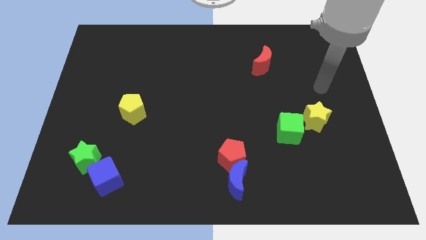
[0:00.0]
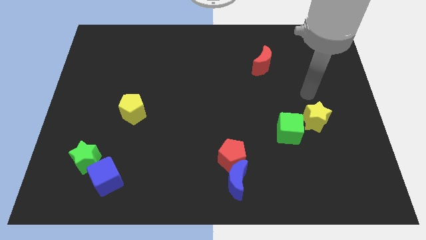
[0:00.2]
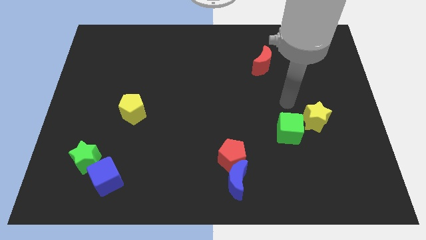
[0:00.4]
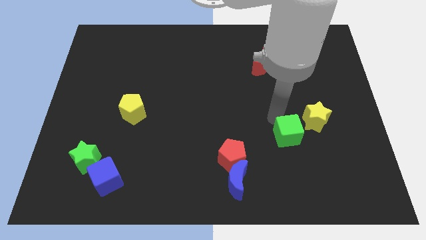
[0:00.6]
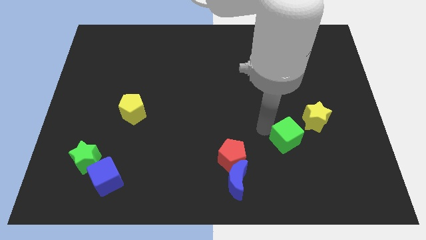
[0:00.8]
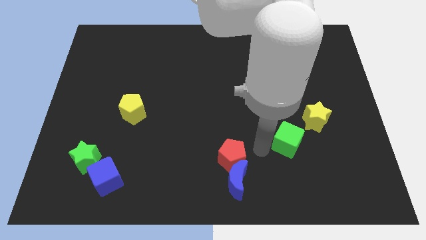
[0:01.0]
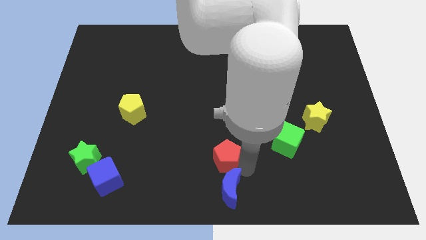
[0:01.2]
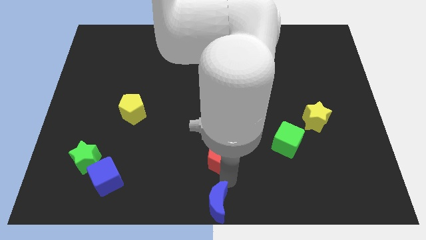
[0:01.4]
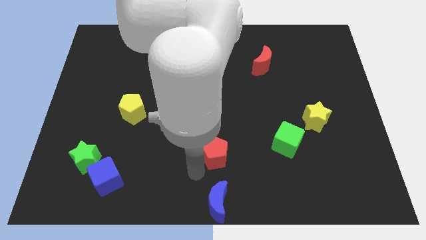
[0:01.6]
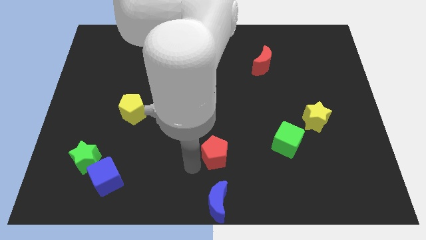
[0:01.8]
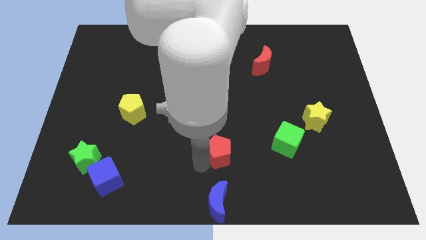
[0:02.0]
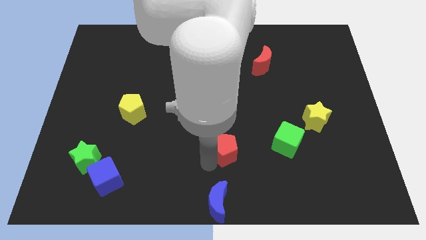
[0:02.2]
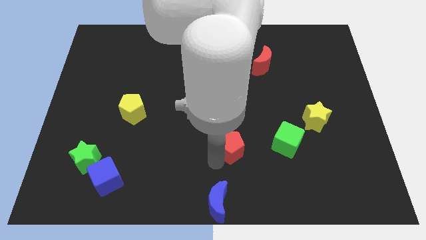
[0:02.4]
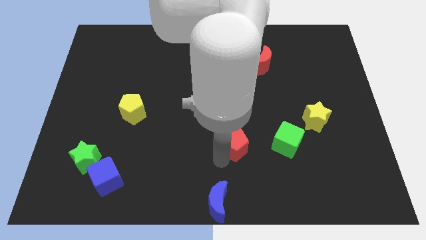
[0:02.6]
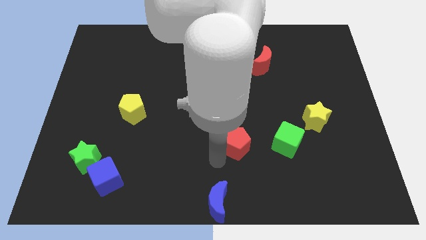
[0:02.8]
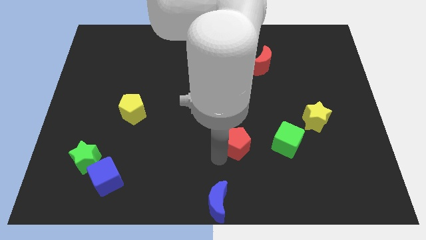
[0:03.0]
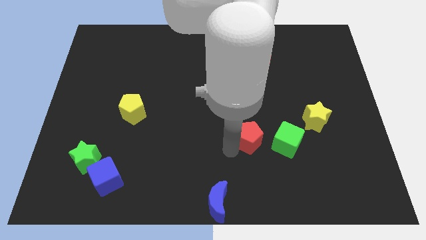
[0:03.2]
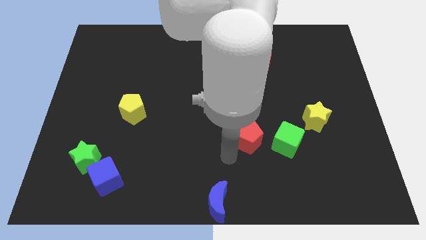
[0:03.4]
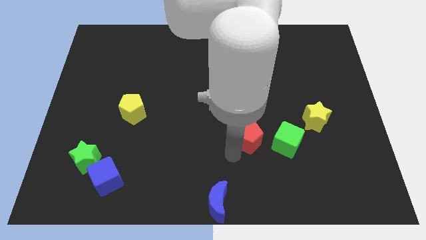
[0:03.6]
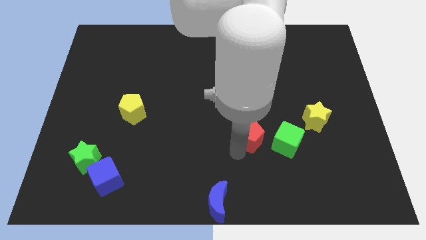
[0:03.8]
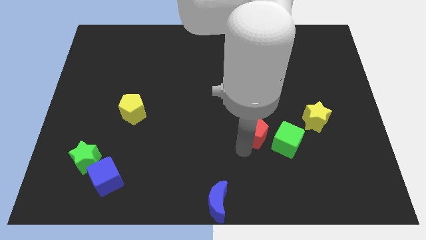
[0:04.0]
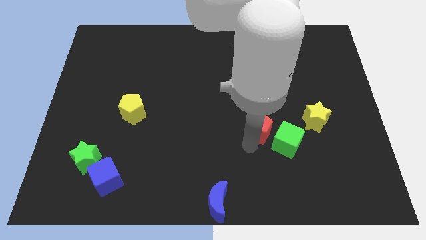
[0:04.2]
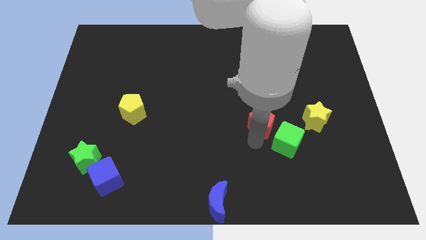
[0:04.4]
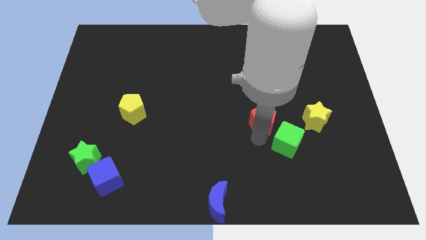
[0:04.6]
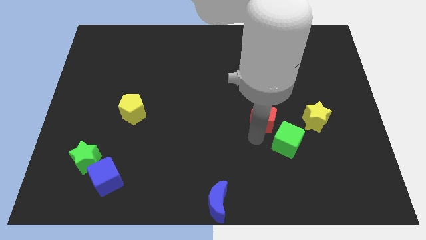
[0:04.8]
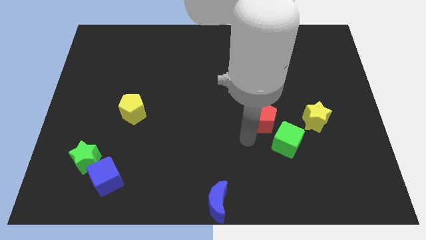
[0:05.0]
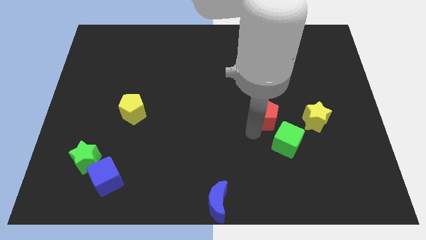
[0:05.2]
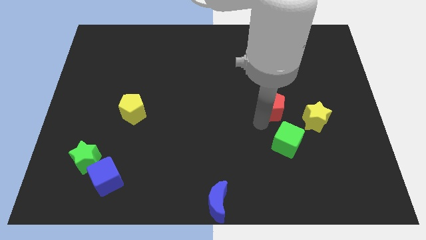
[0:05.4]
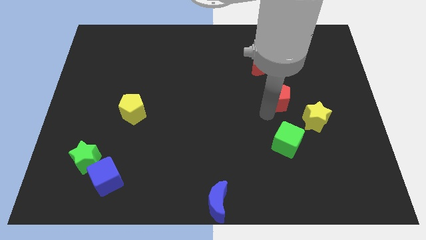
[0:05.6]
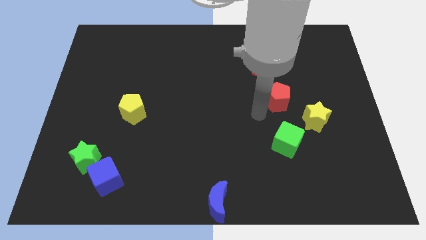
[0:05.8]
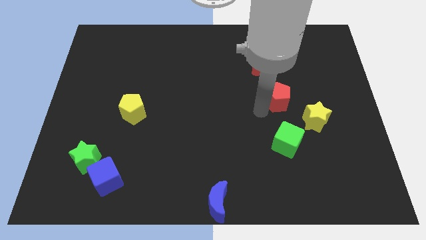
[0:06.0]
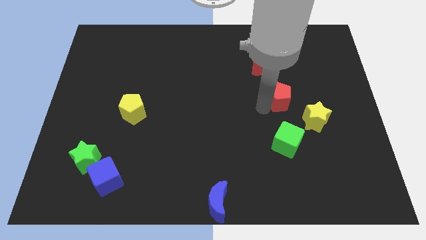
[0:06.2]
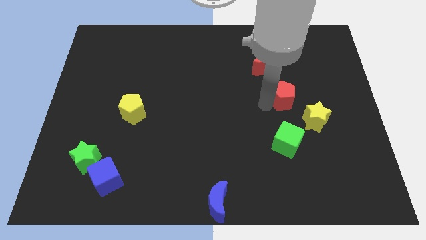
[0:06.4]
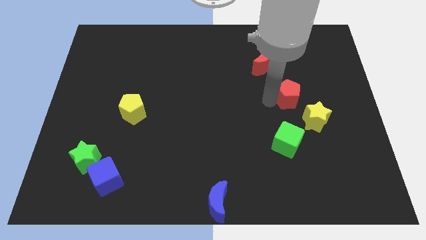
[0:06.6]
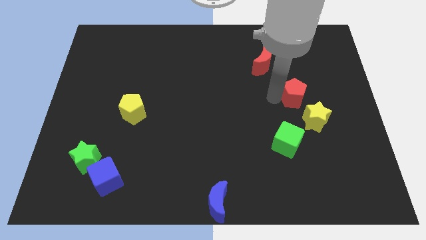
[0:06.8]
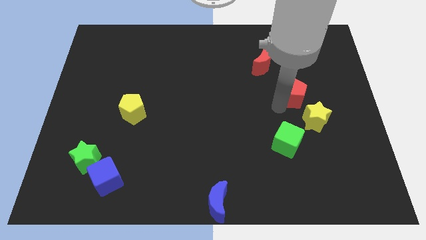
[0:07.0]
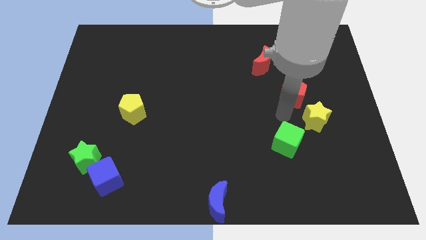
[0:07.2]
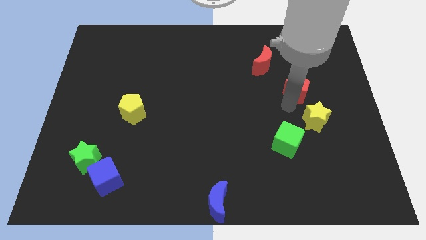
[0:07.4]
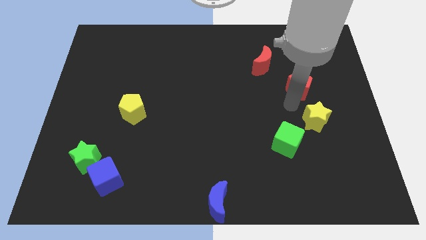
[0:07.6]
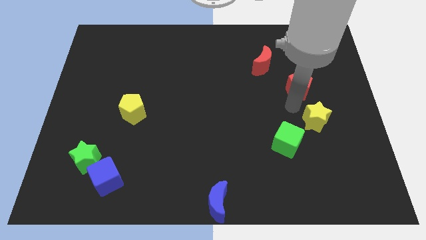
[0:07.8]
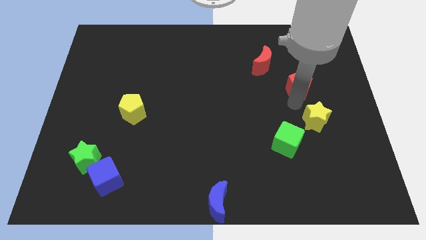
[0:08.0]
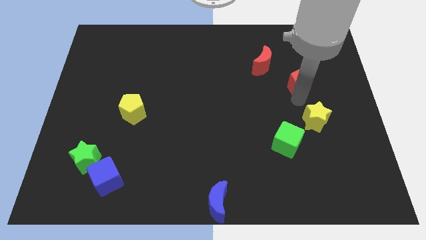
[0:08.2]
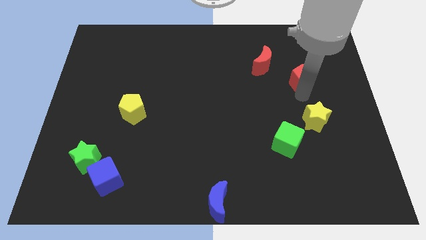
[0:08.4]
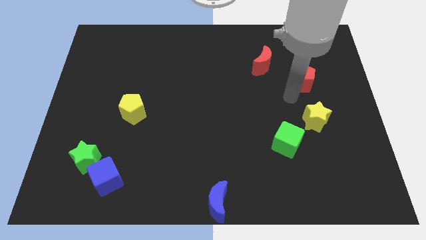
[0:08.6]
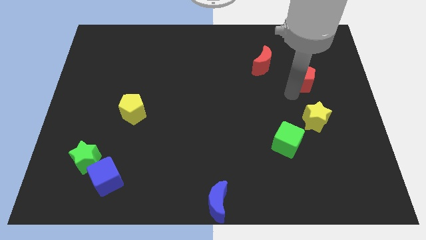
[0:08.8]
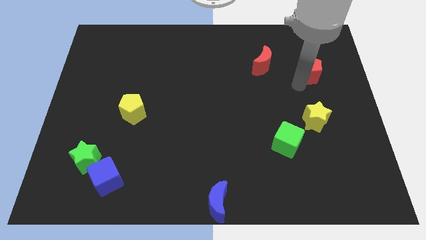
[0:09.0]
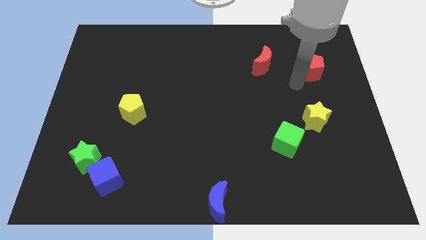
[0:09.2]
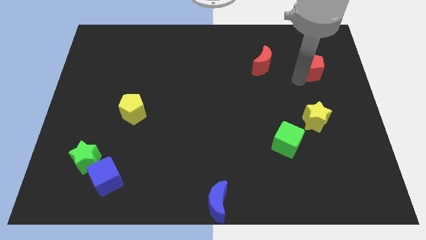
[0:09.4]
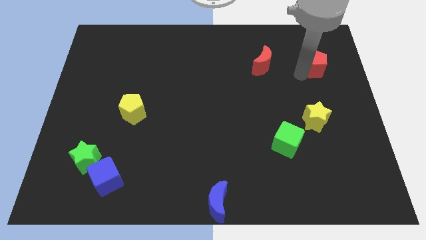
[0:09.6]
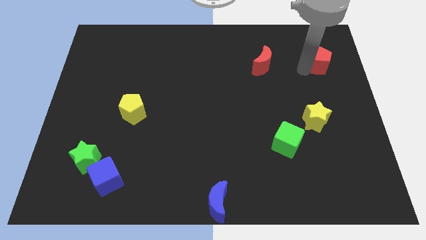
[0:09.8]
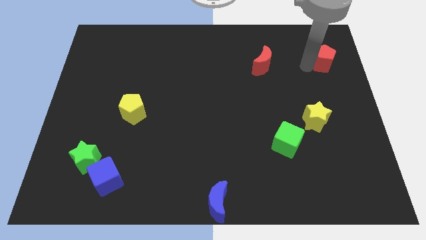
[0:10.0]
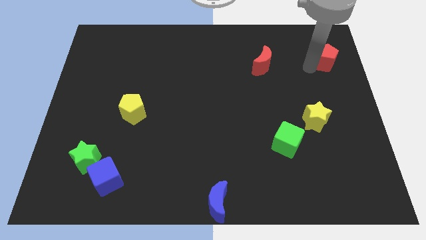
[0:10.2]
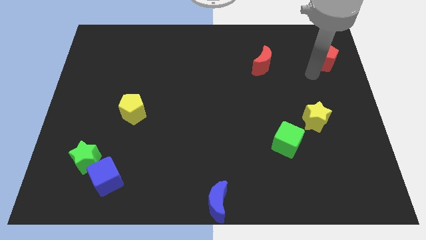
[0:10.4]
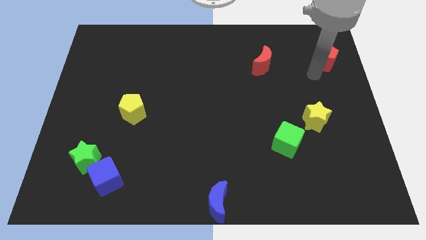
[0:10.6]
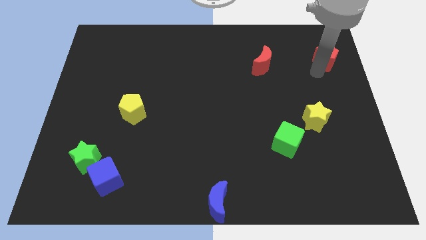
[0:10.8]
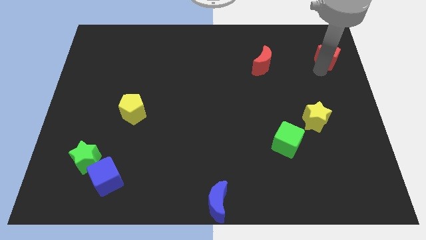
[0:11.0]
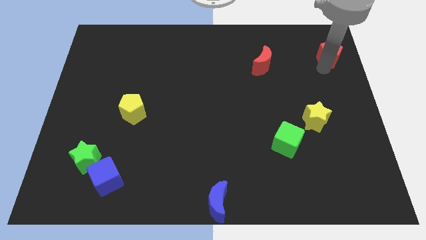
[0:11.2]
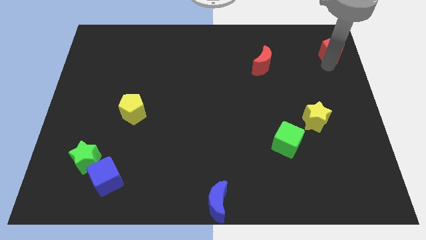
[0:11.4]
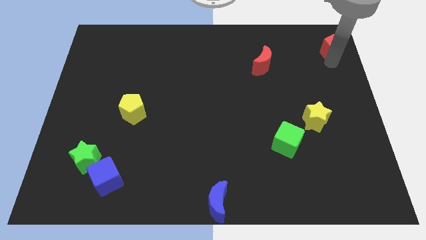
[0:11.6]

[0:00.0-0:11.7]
push the red pentagon to the top right corner

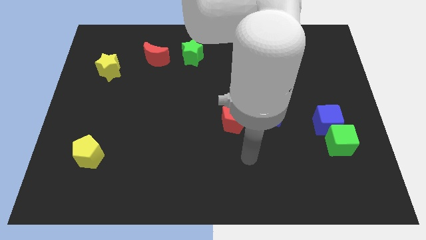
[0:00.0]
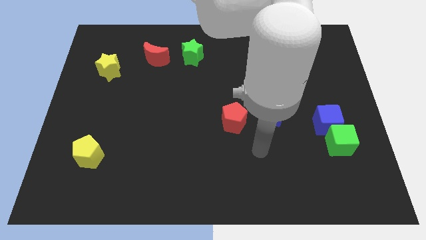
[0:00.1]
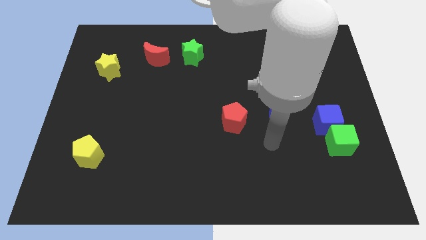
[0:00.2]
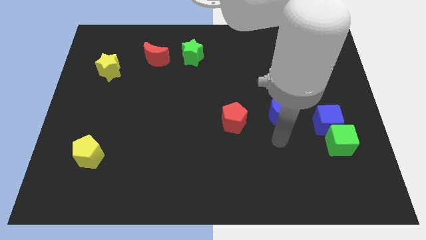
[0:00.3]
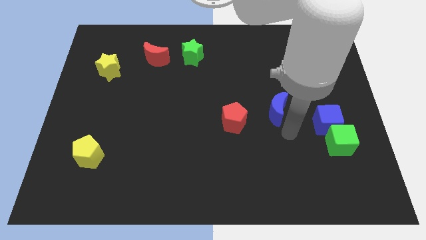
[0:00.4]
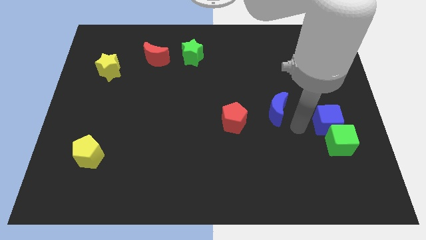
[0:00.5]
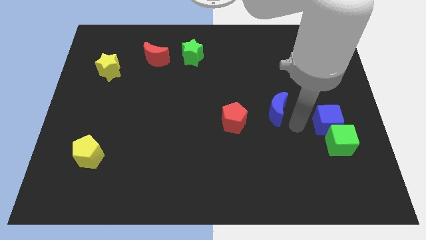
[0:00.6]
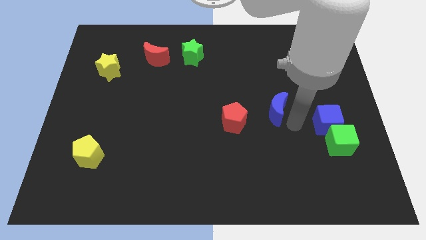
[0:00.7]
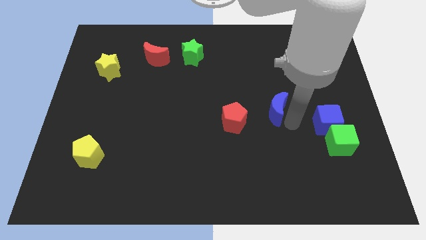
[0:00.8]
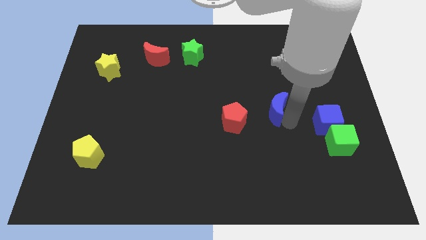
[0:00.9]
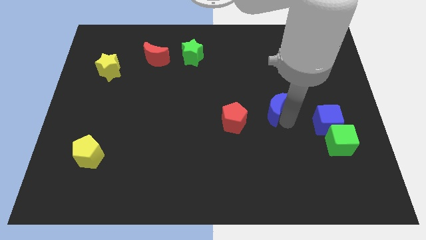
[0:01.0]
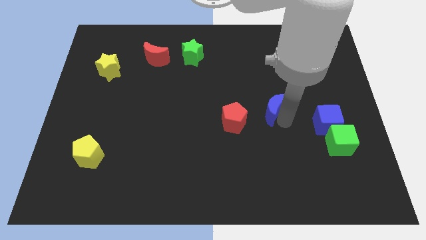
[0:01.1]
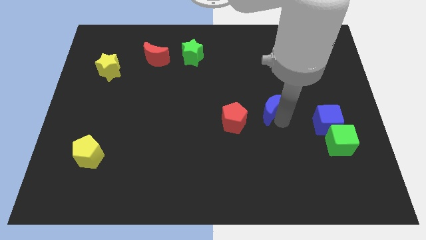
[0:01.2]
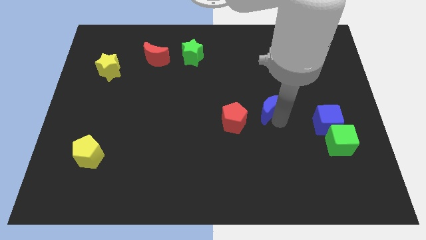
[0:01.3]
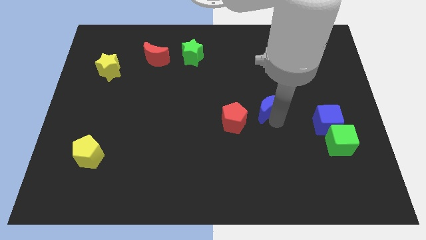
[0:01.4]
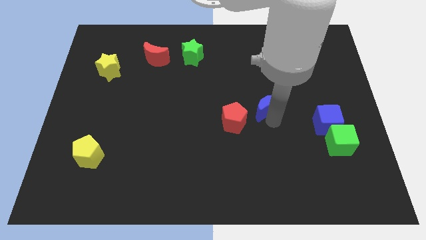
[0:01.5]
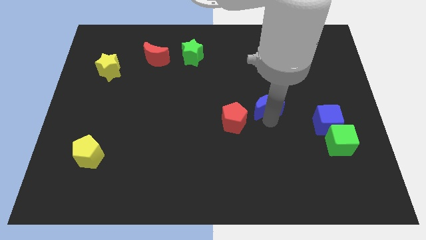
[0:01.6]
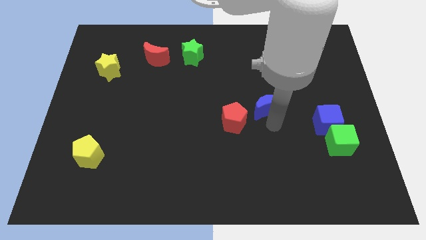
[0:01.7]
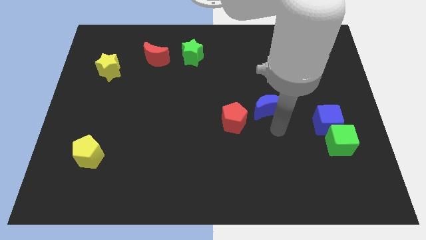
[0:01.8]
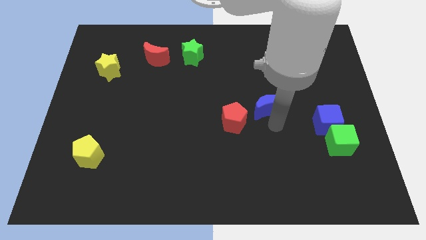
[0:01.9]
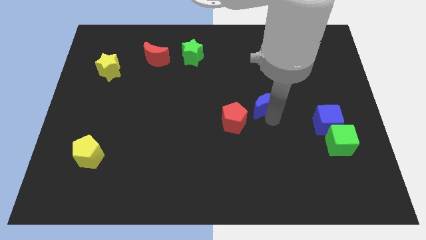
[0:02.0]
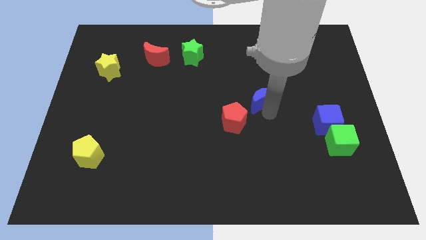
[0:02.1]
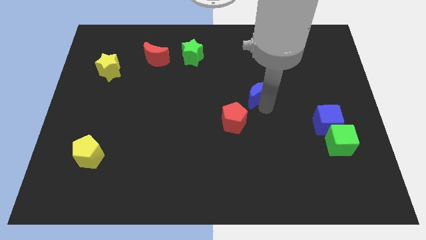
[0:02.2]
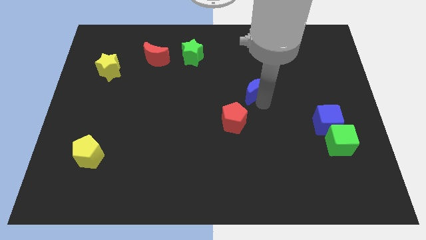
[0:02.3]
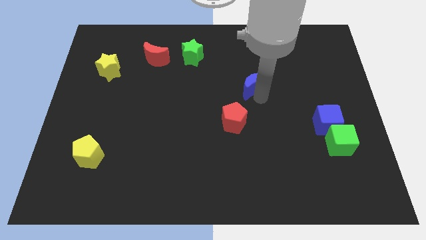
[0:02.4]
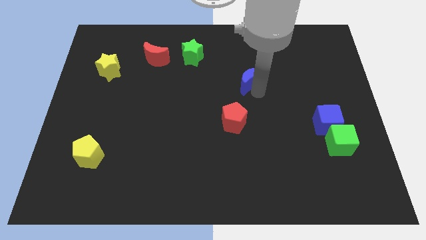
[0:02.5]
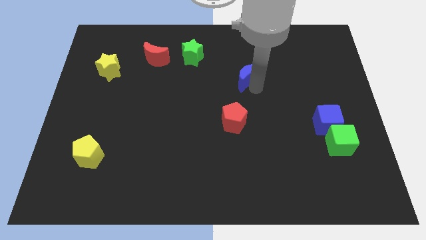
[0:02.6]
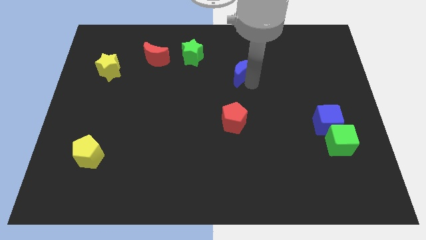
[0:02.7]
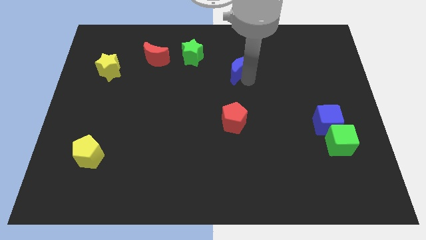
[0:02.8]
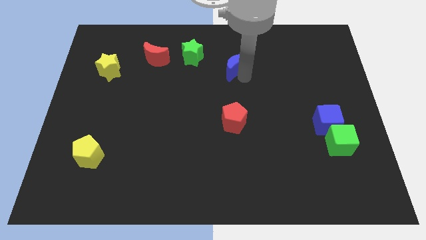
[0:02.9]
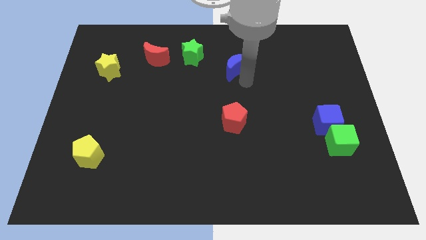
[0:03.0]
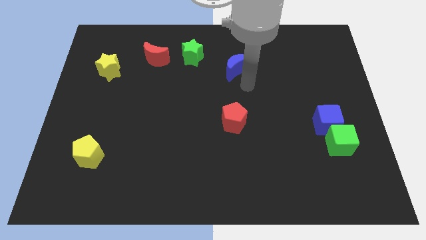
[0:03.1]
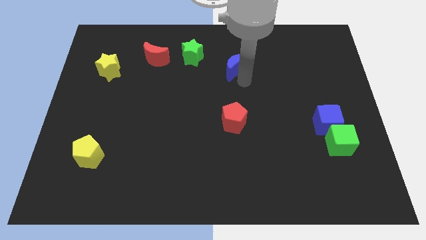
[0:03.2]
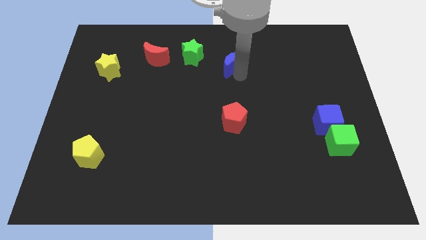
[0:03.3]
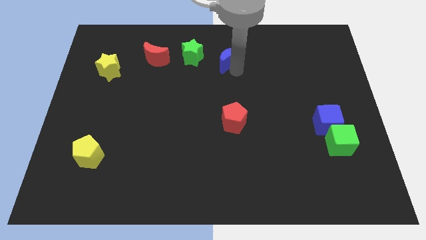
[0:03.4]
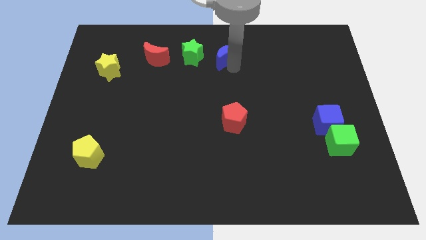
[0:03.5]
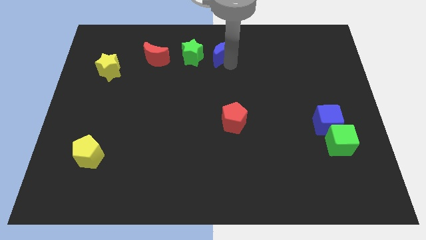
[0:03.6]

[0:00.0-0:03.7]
put the blue moon to the top
